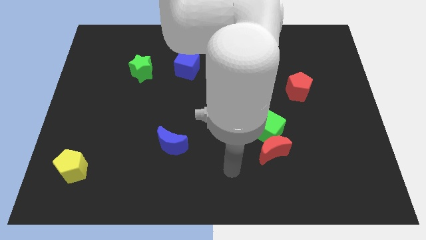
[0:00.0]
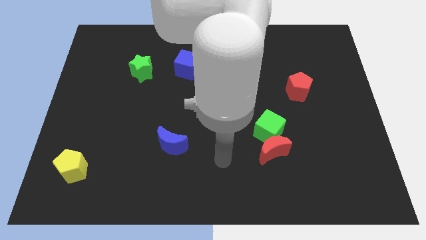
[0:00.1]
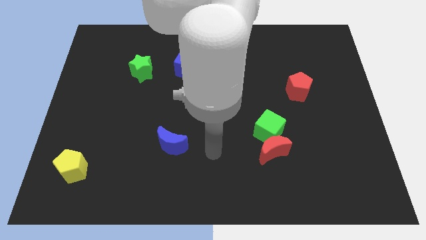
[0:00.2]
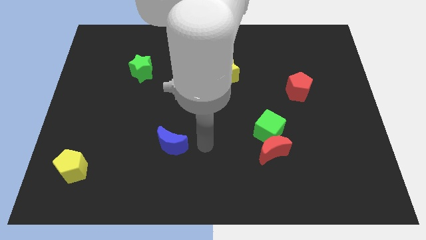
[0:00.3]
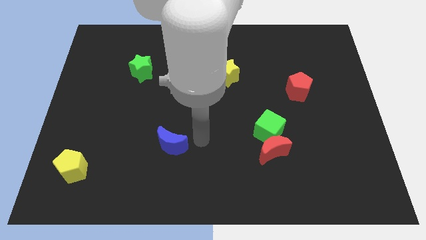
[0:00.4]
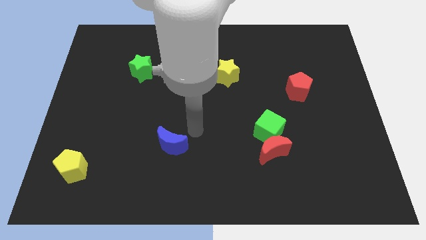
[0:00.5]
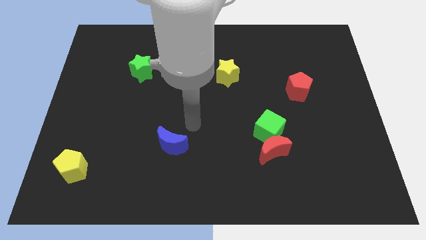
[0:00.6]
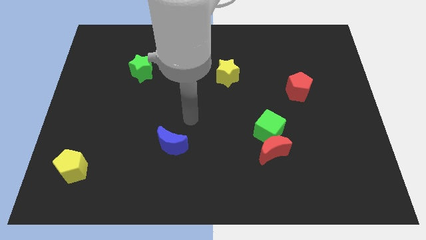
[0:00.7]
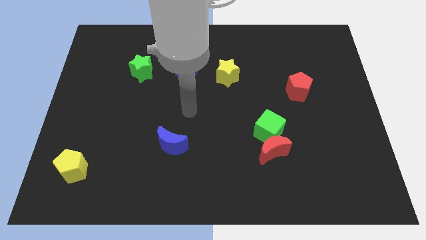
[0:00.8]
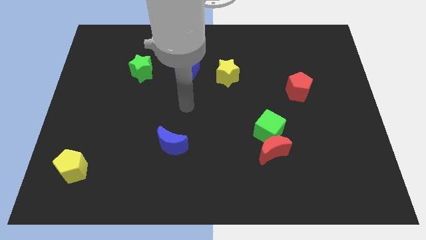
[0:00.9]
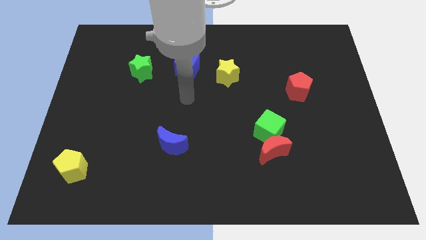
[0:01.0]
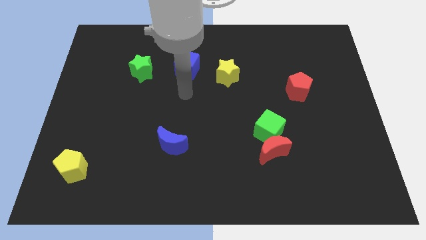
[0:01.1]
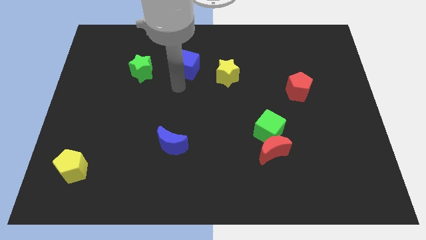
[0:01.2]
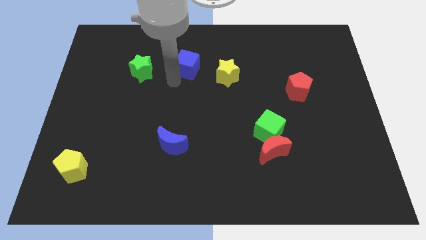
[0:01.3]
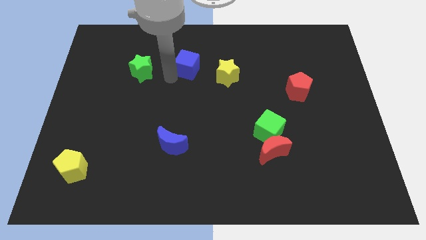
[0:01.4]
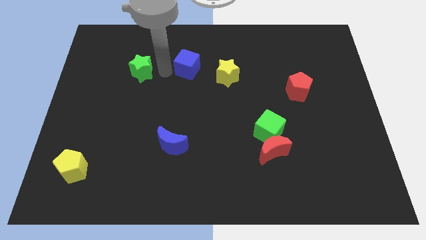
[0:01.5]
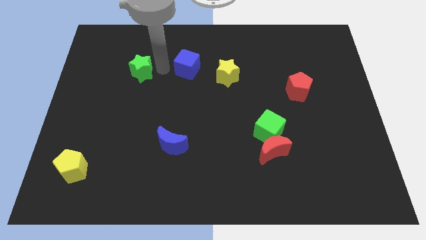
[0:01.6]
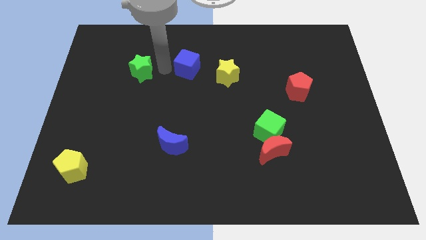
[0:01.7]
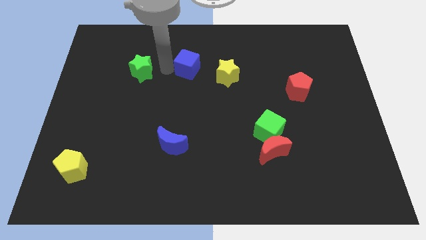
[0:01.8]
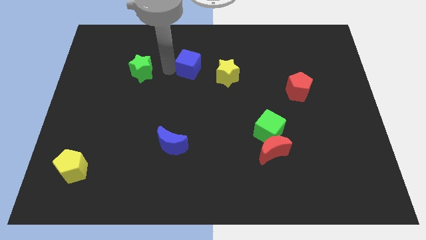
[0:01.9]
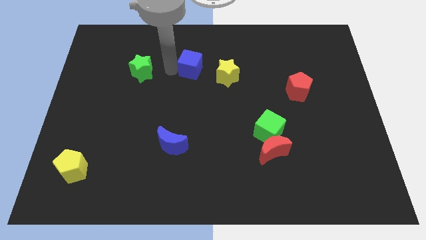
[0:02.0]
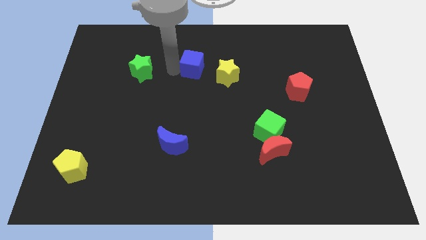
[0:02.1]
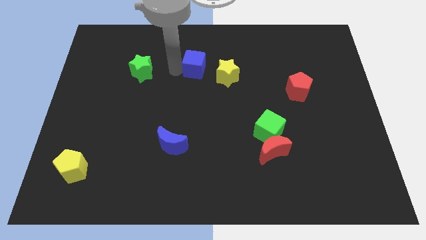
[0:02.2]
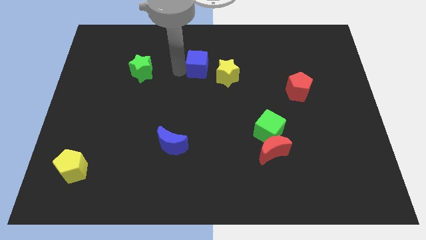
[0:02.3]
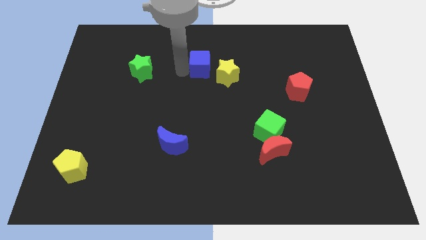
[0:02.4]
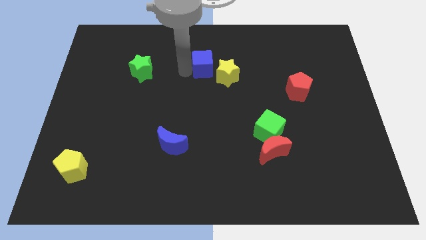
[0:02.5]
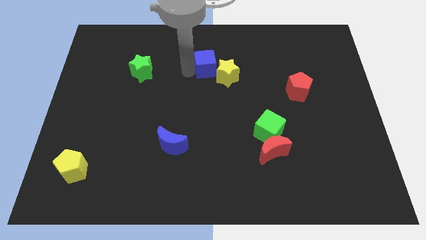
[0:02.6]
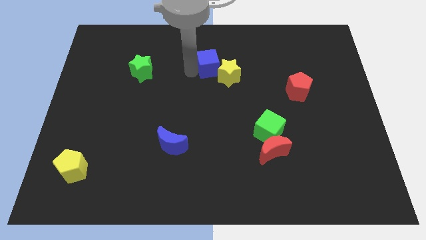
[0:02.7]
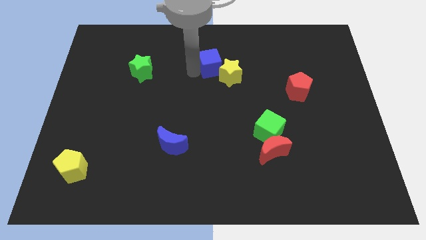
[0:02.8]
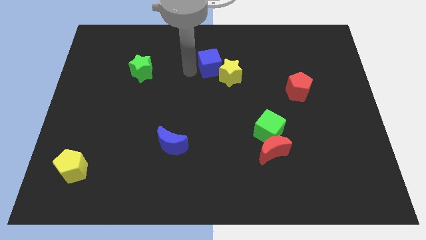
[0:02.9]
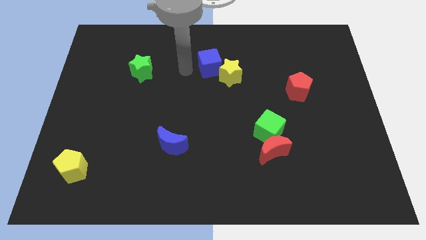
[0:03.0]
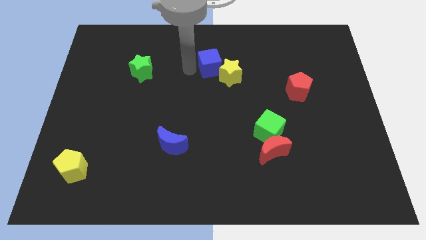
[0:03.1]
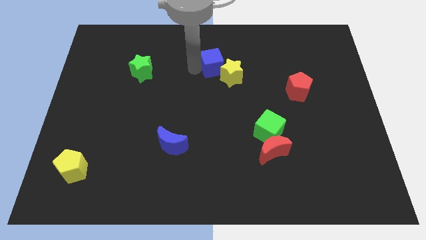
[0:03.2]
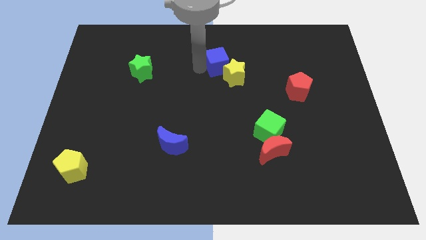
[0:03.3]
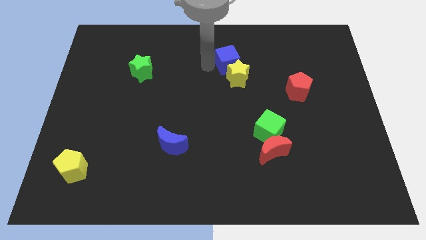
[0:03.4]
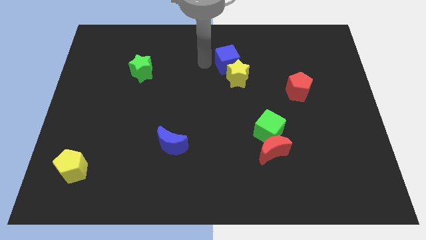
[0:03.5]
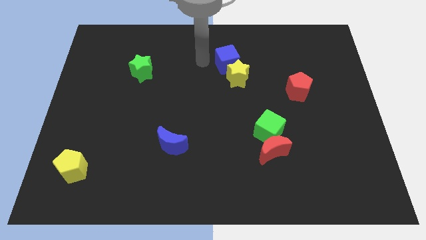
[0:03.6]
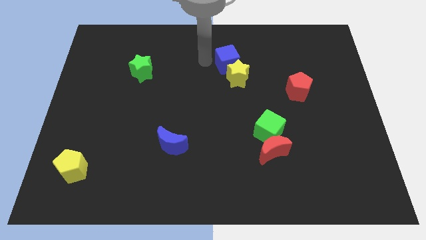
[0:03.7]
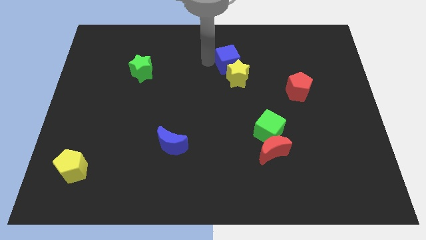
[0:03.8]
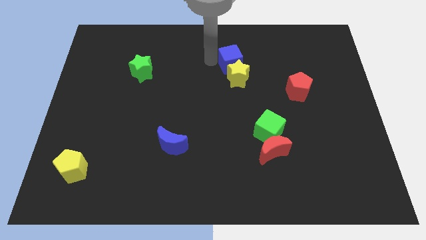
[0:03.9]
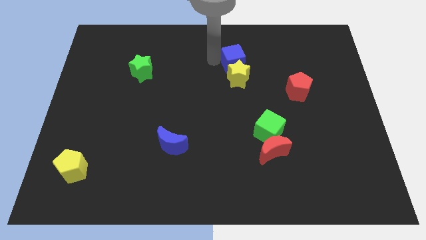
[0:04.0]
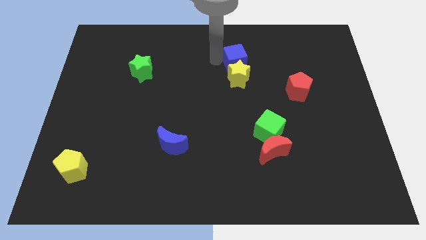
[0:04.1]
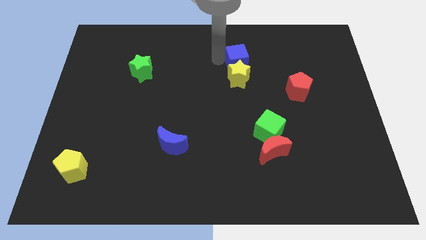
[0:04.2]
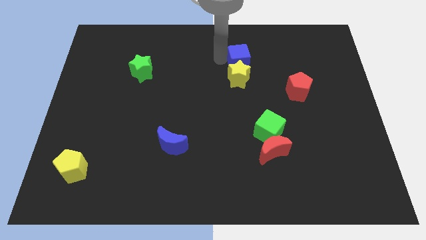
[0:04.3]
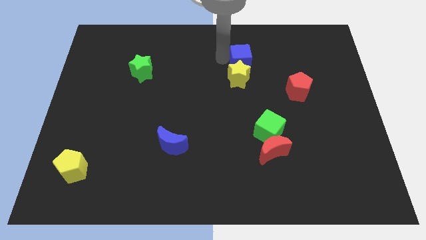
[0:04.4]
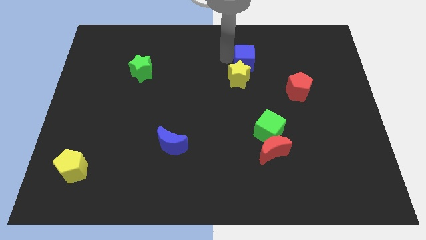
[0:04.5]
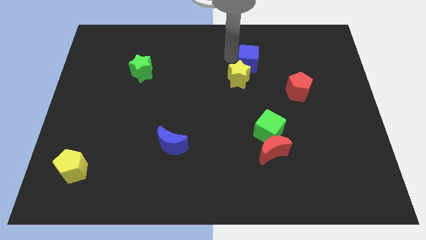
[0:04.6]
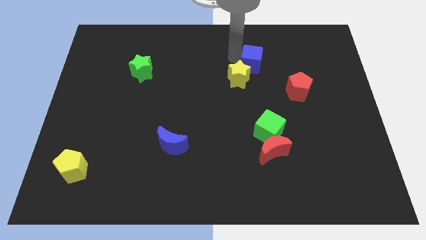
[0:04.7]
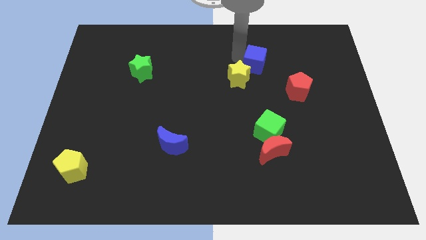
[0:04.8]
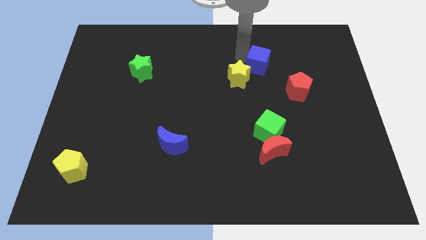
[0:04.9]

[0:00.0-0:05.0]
move the blue cube to the right of the yellow star

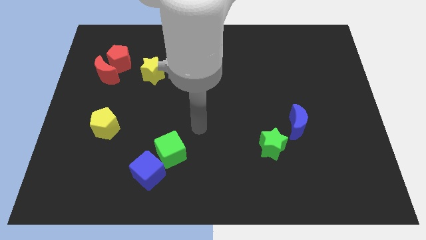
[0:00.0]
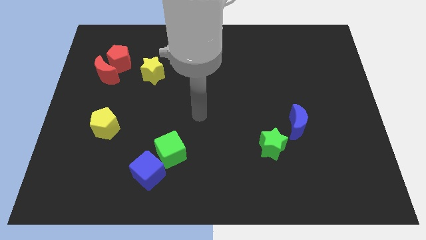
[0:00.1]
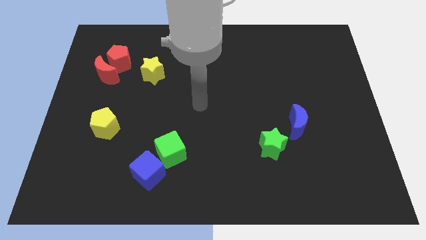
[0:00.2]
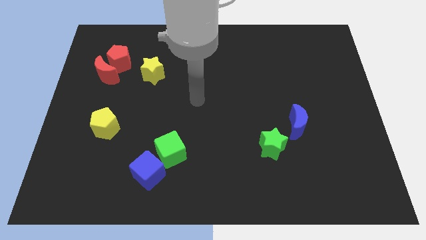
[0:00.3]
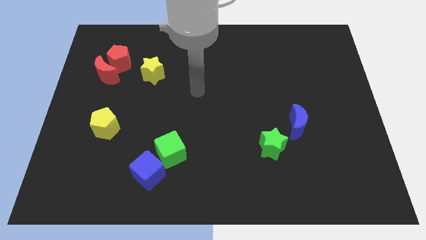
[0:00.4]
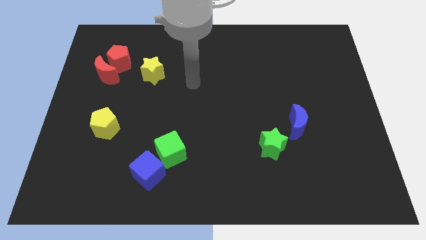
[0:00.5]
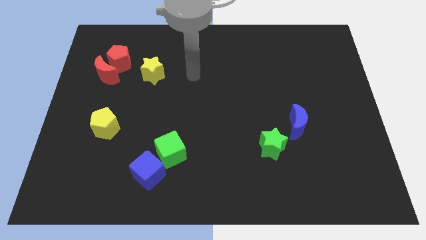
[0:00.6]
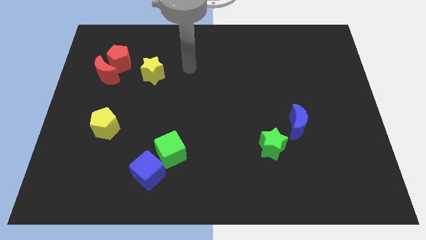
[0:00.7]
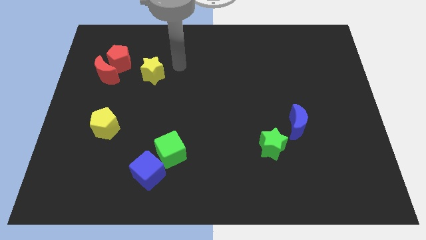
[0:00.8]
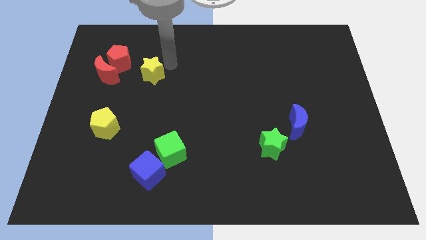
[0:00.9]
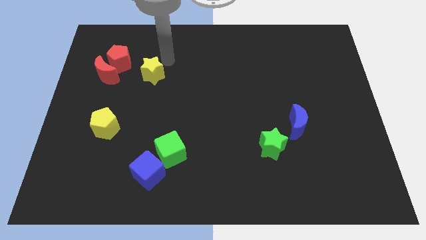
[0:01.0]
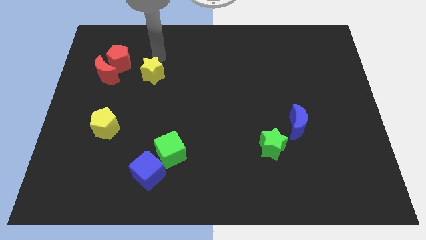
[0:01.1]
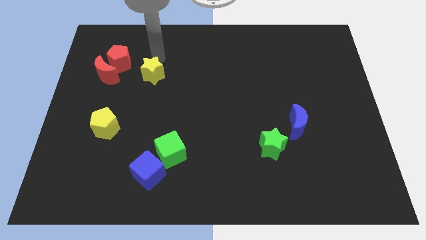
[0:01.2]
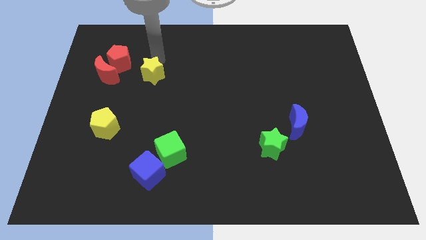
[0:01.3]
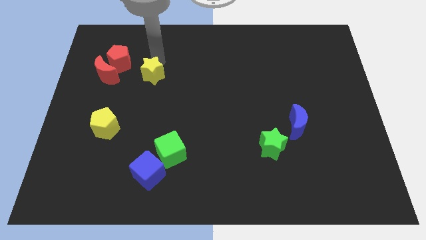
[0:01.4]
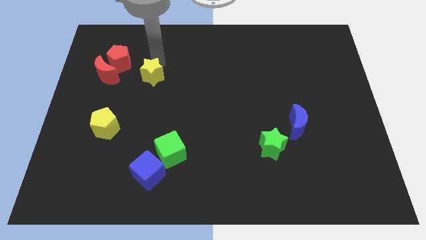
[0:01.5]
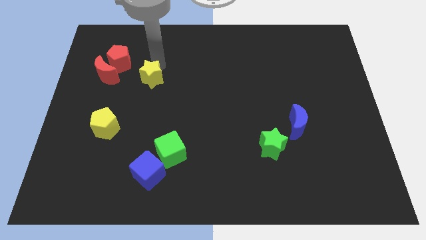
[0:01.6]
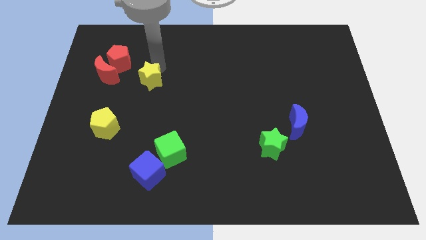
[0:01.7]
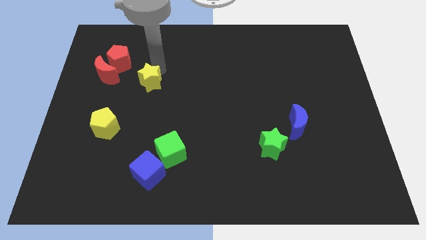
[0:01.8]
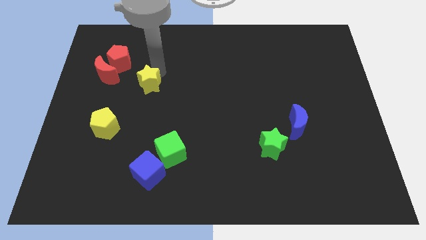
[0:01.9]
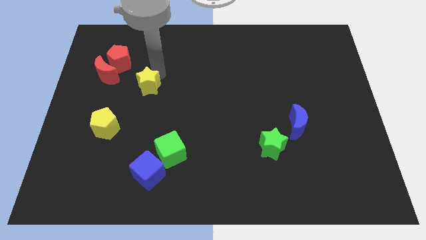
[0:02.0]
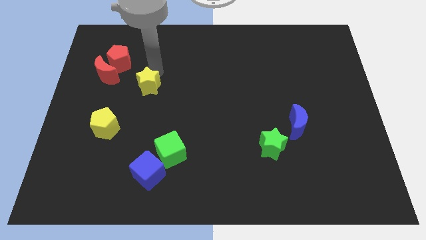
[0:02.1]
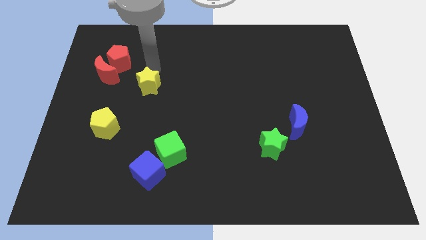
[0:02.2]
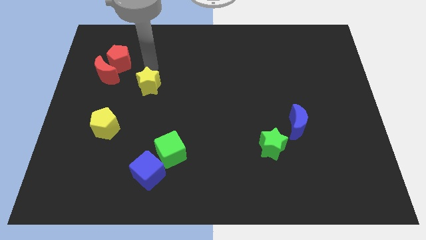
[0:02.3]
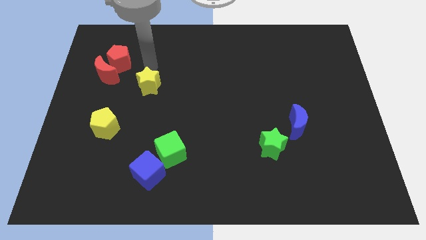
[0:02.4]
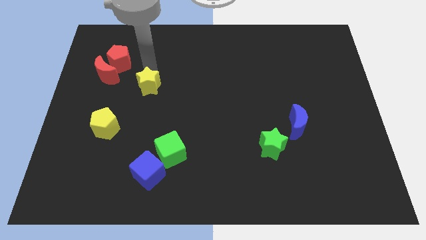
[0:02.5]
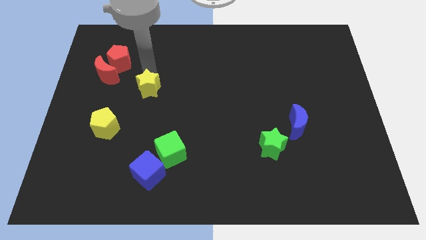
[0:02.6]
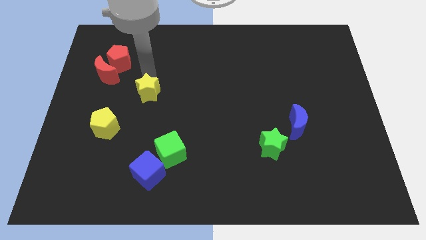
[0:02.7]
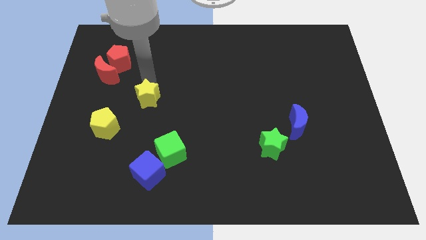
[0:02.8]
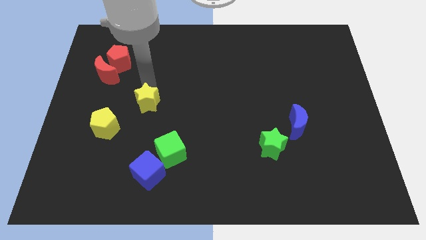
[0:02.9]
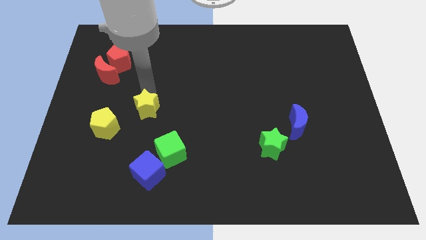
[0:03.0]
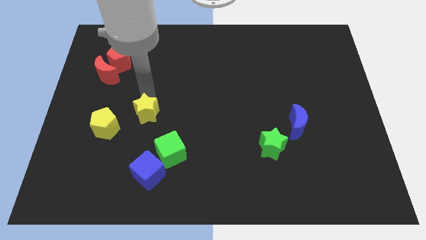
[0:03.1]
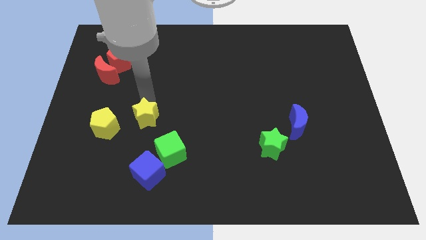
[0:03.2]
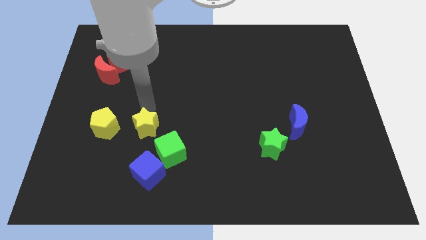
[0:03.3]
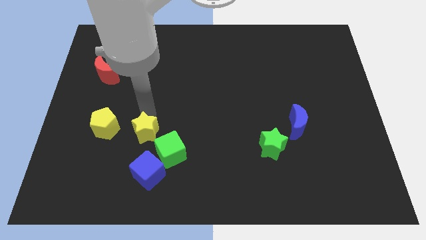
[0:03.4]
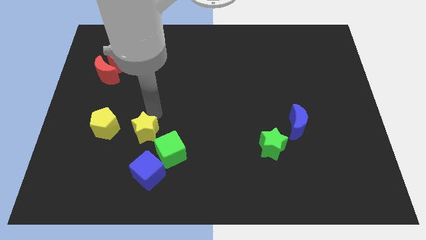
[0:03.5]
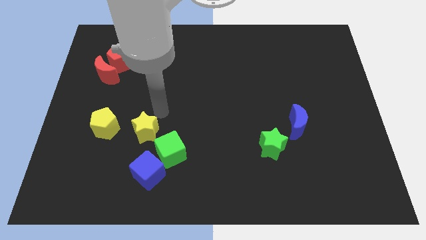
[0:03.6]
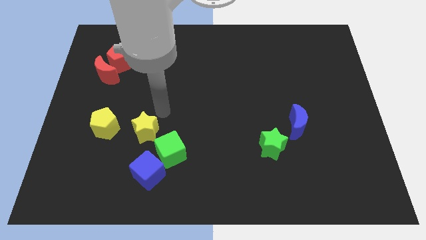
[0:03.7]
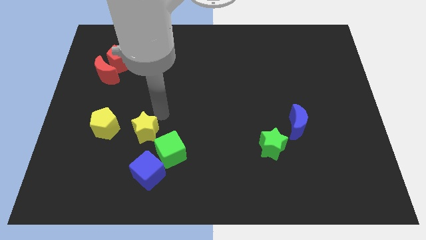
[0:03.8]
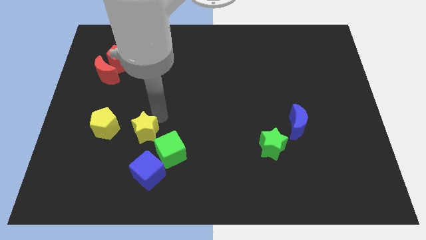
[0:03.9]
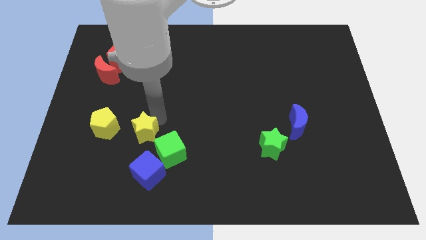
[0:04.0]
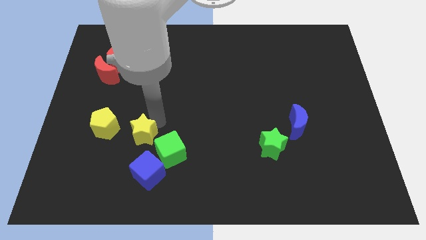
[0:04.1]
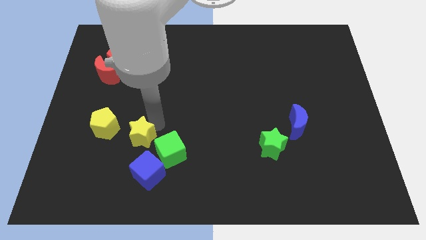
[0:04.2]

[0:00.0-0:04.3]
put the yellow star to the top left of the blue cube
